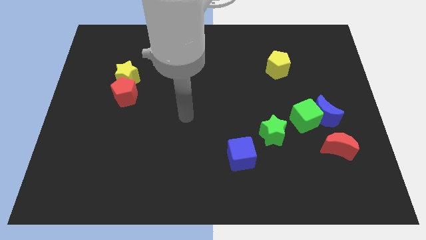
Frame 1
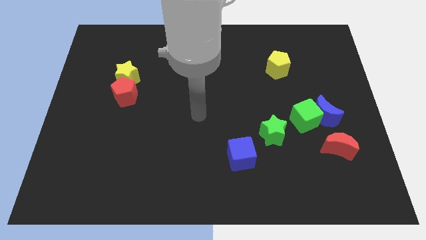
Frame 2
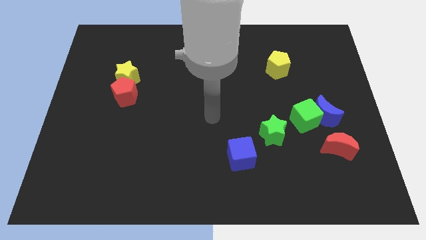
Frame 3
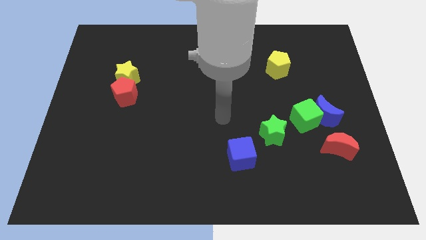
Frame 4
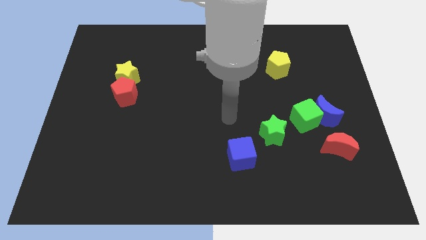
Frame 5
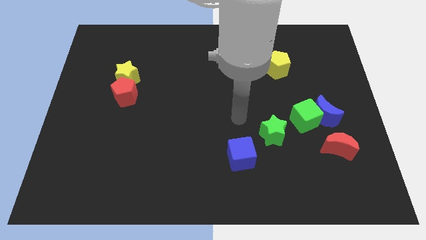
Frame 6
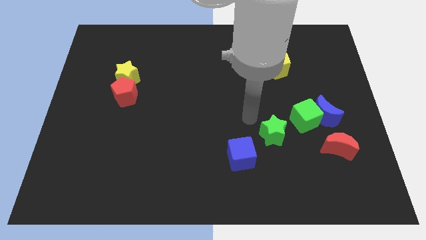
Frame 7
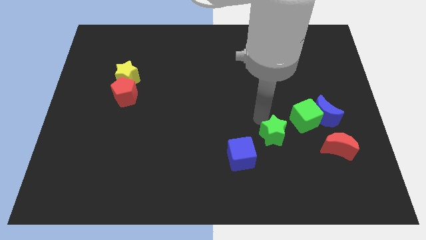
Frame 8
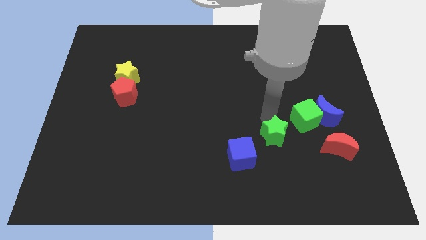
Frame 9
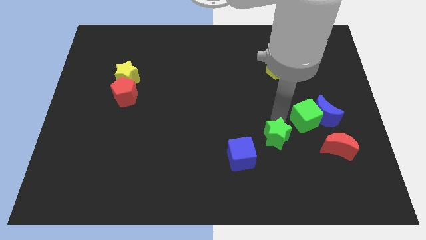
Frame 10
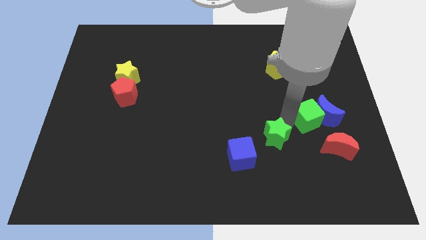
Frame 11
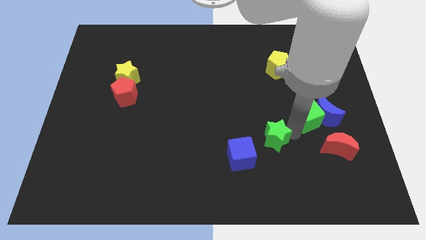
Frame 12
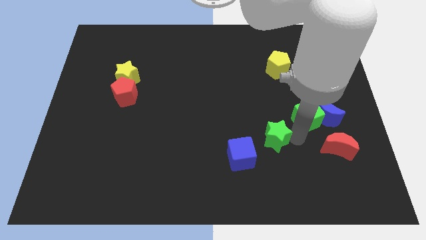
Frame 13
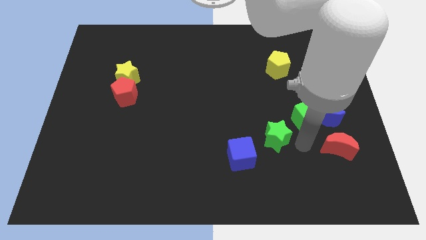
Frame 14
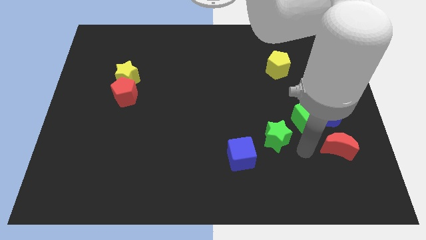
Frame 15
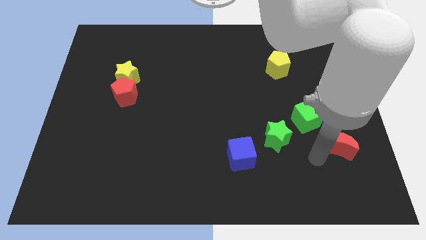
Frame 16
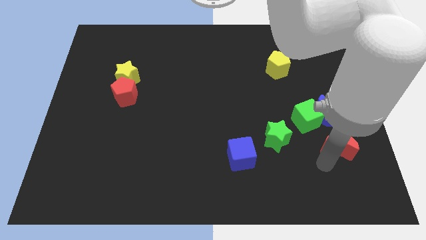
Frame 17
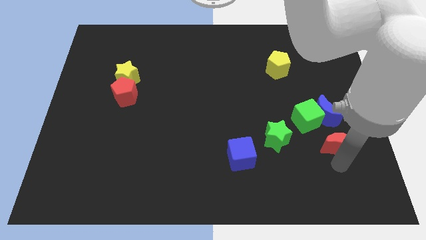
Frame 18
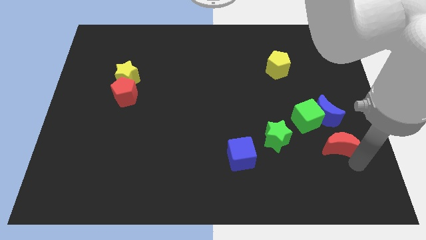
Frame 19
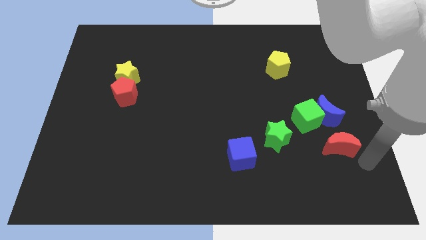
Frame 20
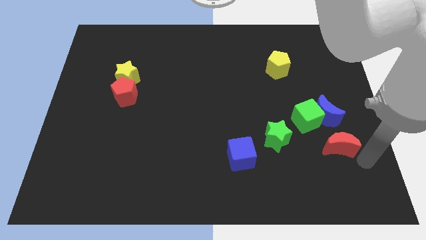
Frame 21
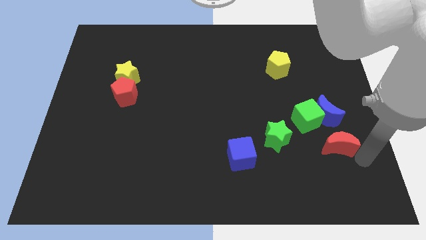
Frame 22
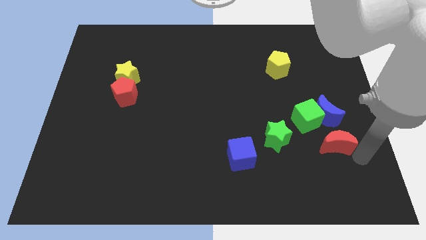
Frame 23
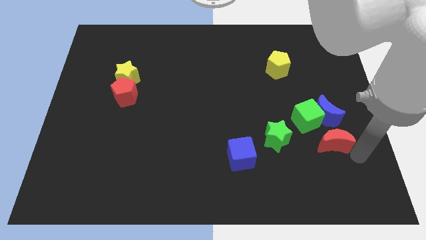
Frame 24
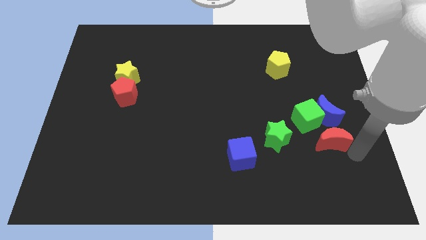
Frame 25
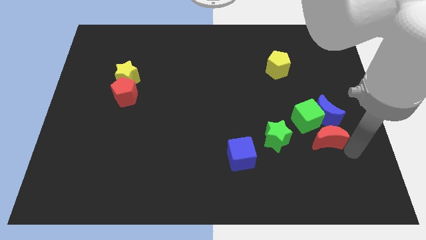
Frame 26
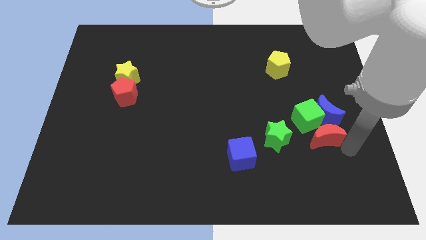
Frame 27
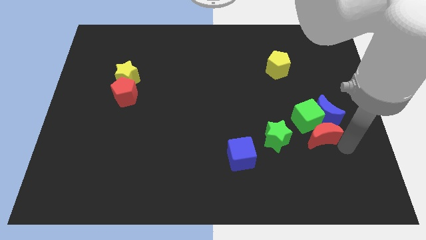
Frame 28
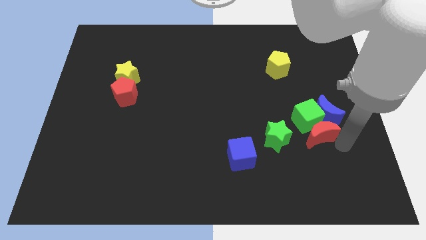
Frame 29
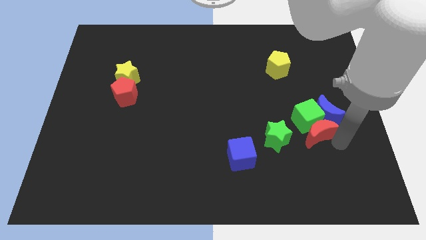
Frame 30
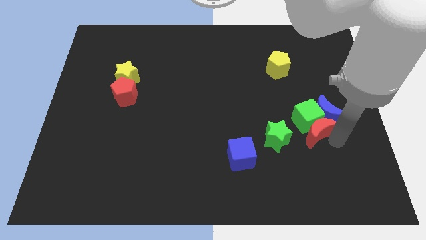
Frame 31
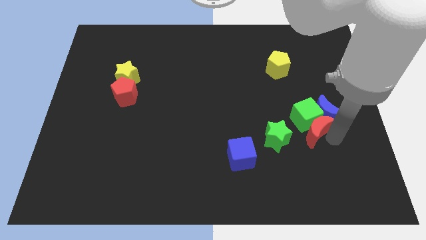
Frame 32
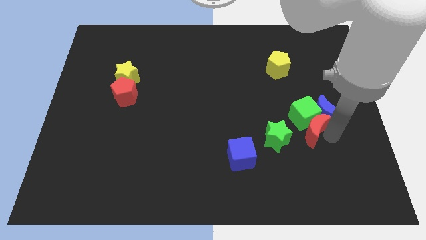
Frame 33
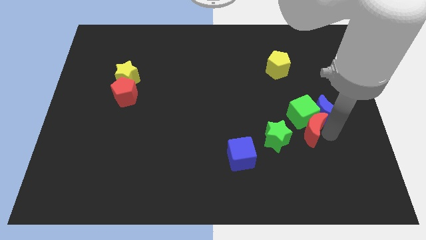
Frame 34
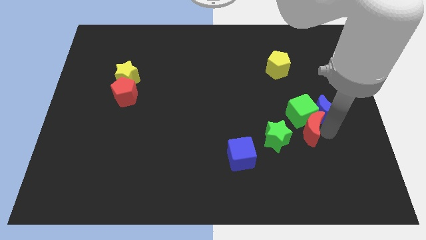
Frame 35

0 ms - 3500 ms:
slide the red moon up and then to the left a little bit

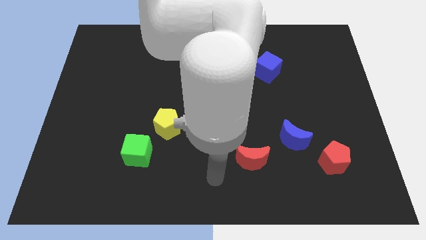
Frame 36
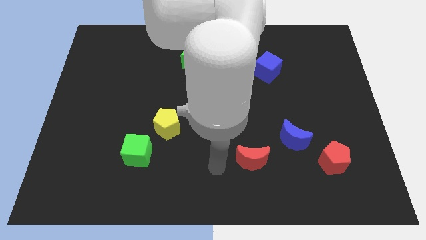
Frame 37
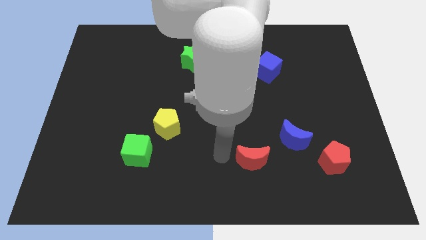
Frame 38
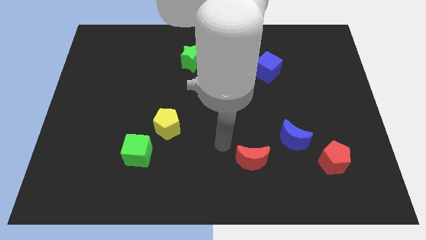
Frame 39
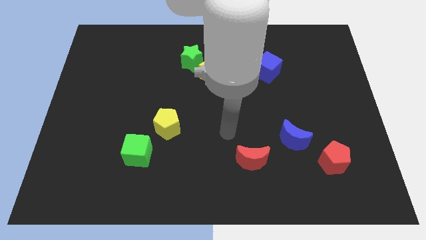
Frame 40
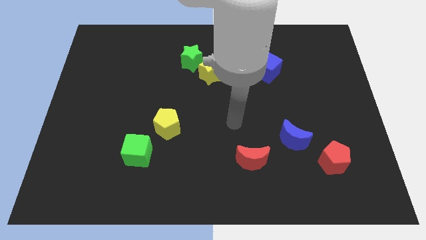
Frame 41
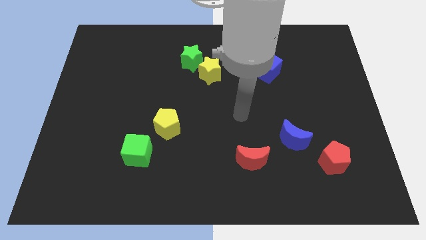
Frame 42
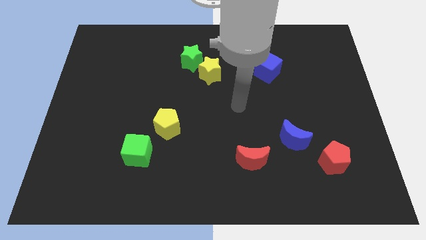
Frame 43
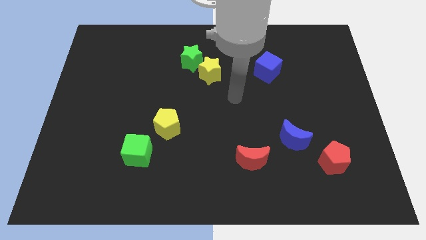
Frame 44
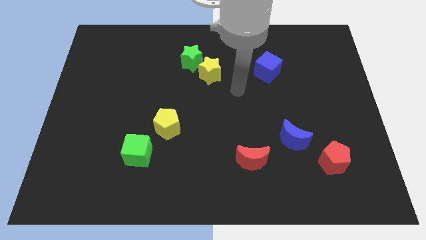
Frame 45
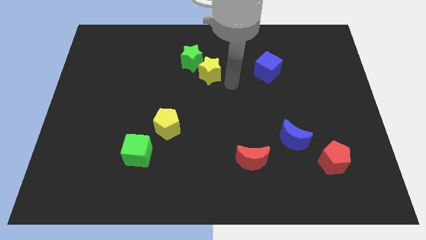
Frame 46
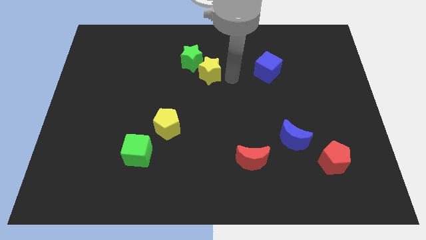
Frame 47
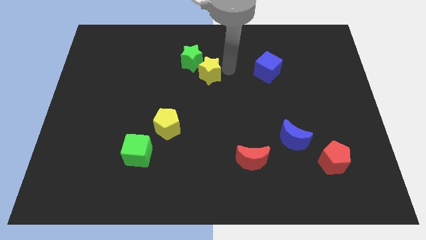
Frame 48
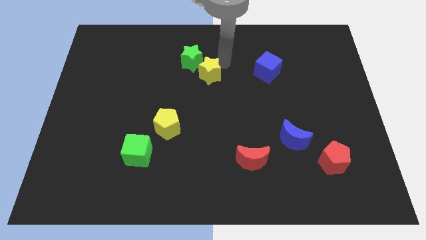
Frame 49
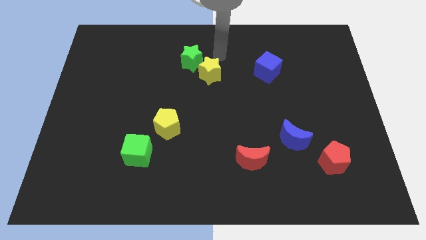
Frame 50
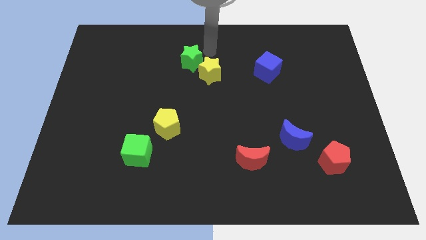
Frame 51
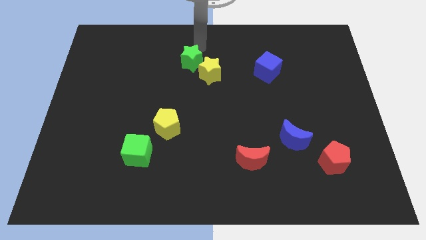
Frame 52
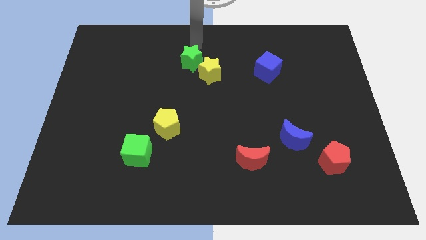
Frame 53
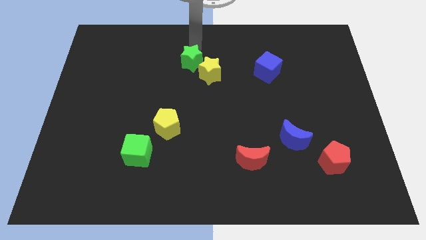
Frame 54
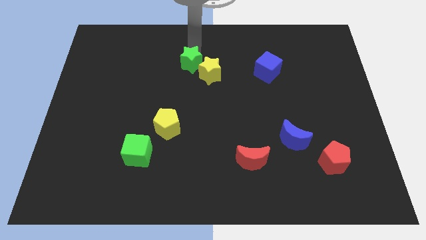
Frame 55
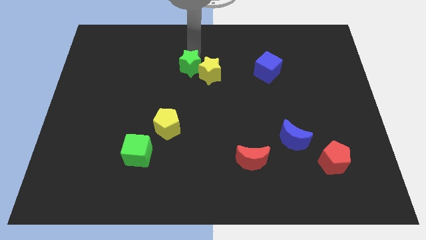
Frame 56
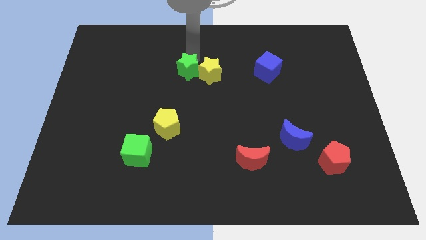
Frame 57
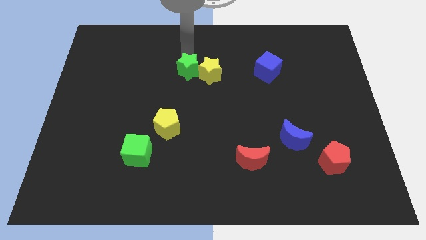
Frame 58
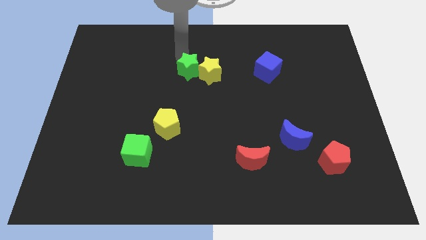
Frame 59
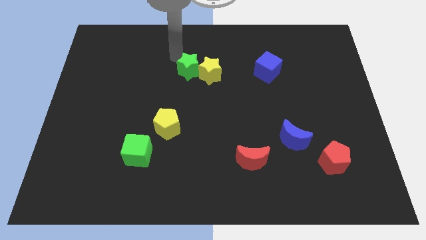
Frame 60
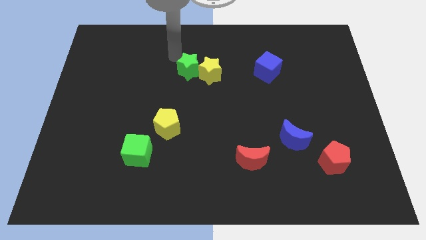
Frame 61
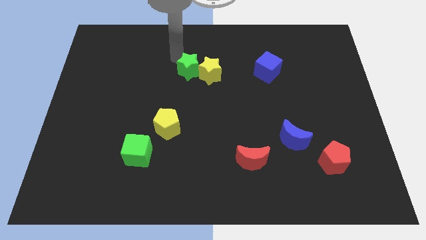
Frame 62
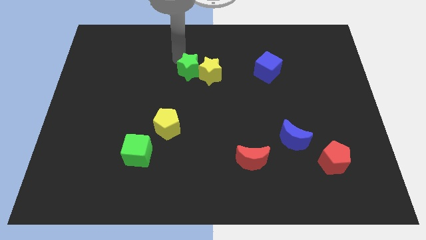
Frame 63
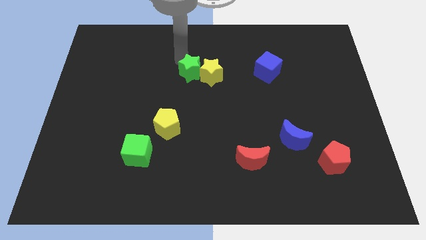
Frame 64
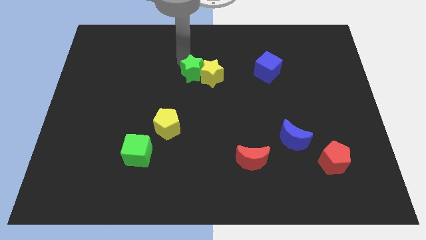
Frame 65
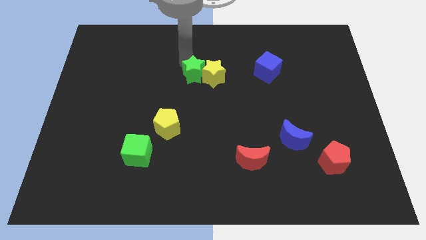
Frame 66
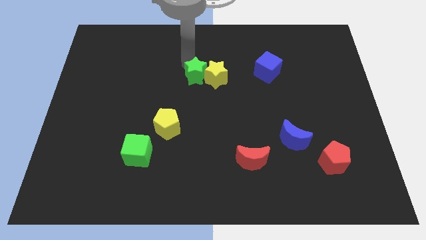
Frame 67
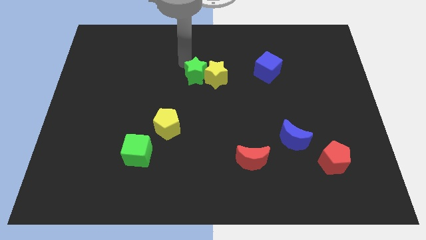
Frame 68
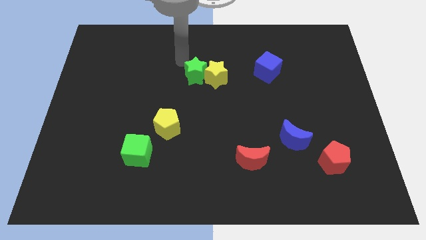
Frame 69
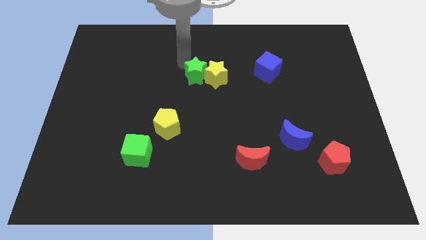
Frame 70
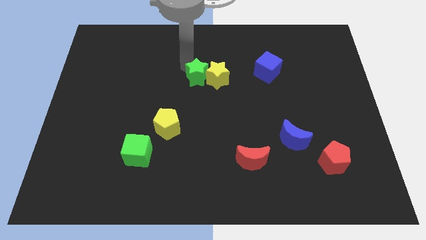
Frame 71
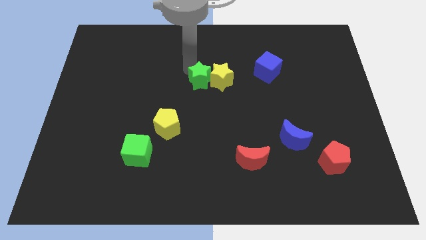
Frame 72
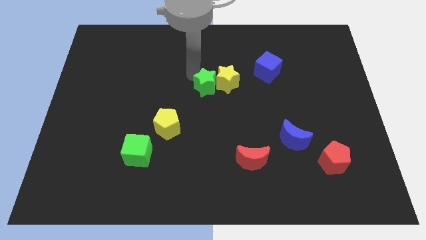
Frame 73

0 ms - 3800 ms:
slightly move the green star downwards and right diagonally

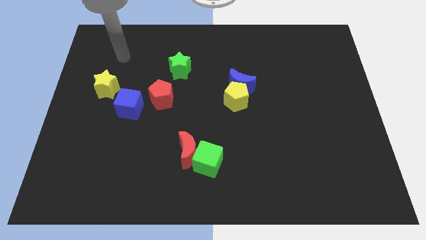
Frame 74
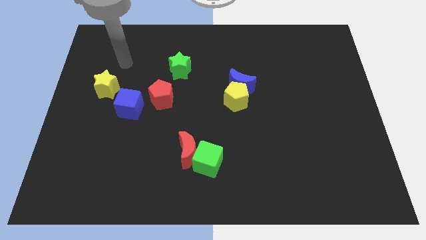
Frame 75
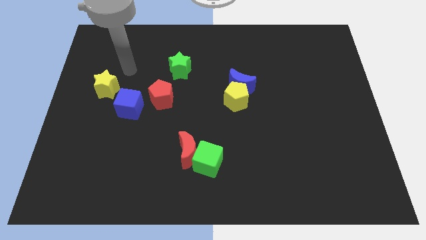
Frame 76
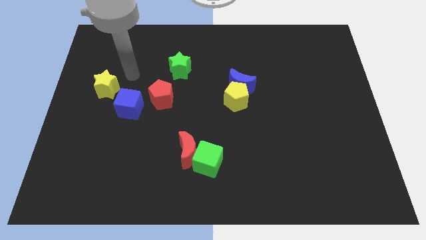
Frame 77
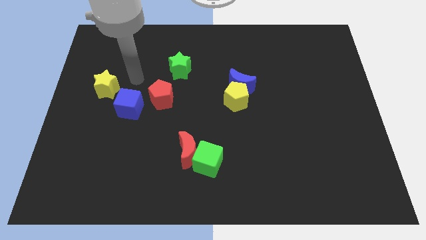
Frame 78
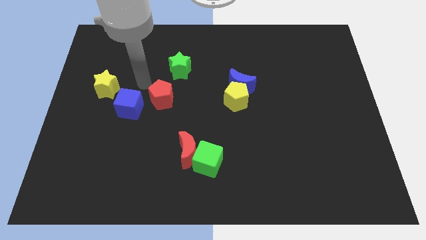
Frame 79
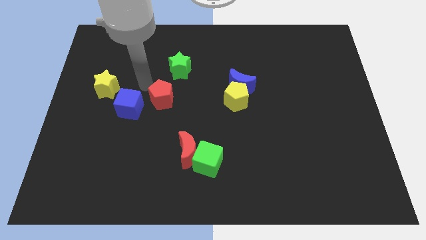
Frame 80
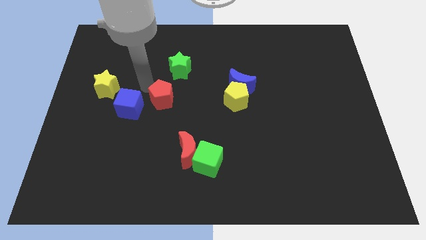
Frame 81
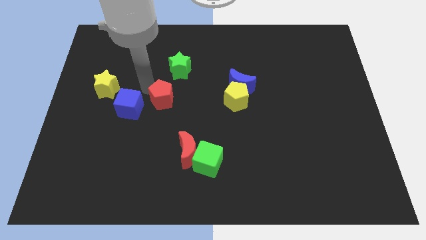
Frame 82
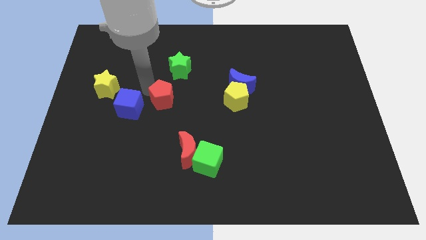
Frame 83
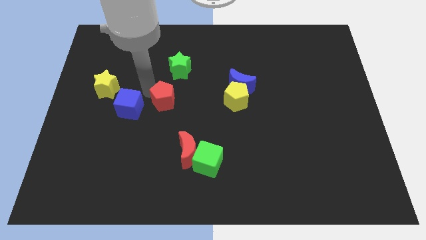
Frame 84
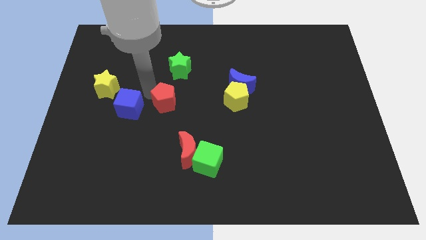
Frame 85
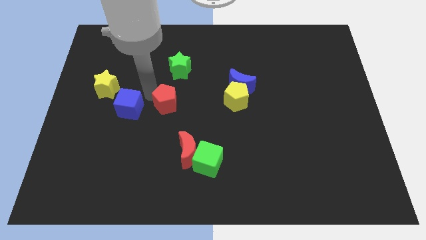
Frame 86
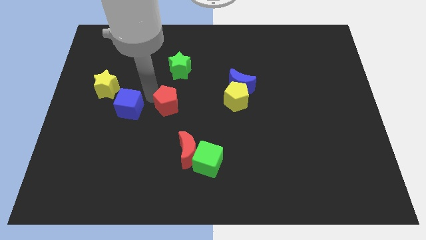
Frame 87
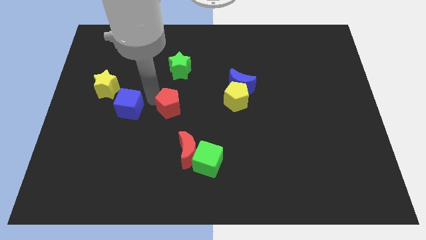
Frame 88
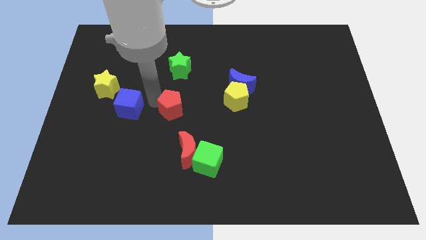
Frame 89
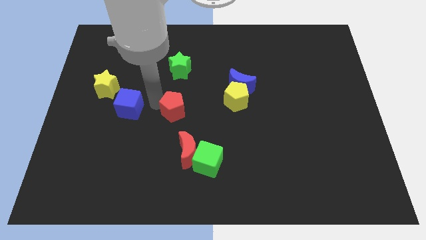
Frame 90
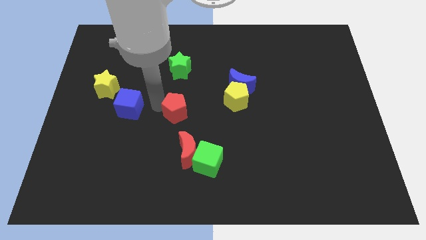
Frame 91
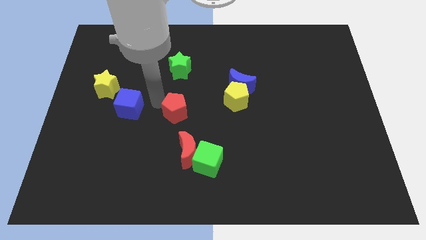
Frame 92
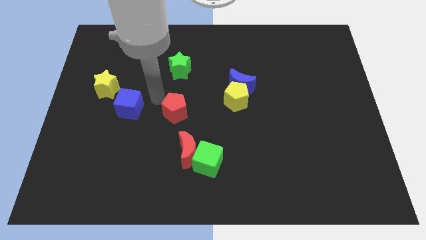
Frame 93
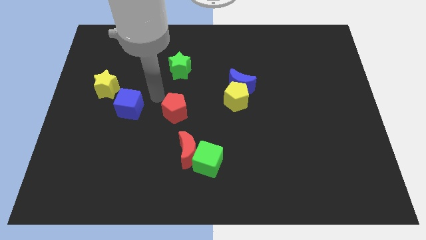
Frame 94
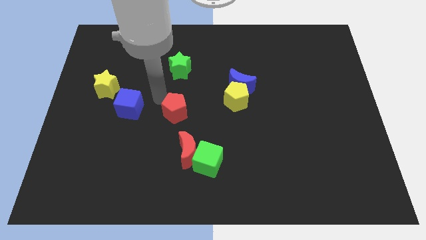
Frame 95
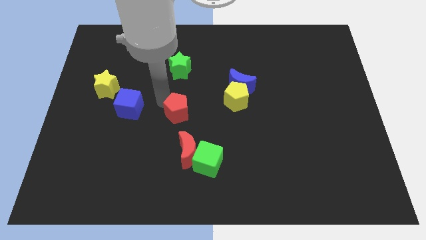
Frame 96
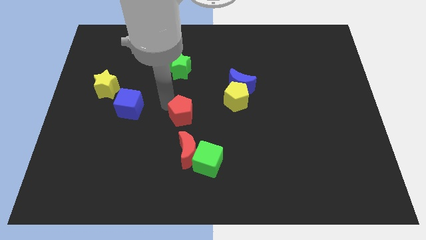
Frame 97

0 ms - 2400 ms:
slide the red pentagon slightly down and to the right
